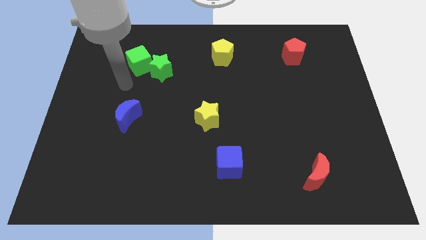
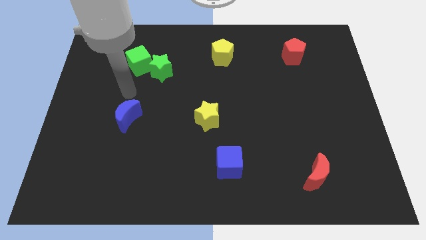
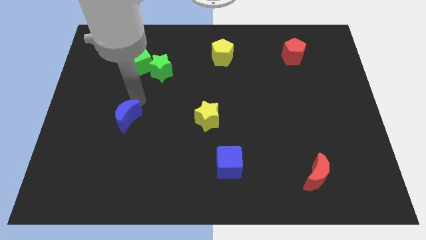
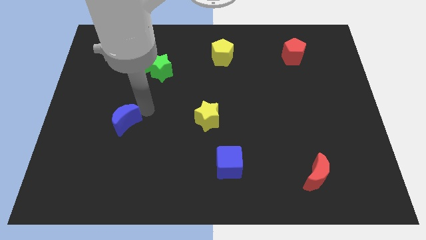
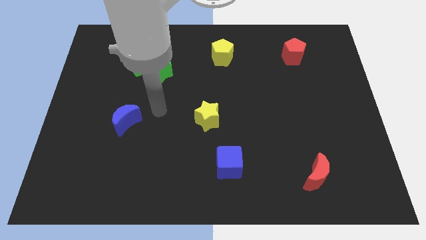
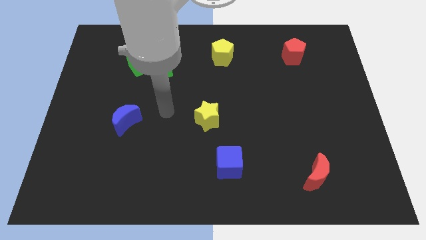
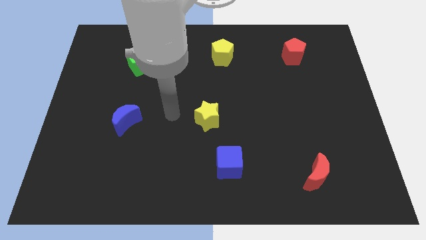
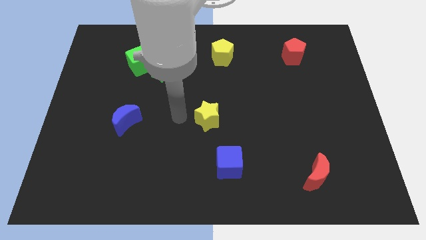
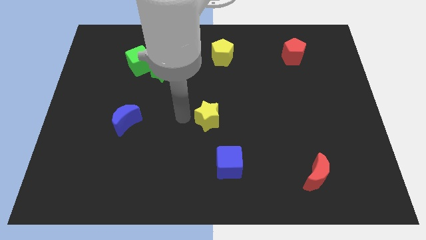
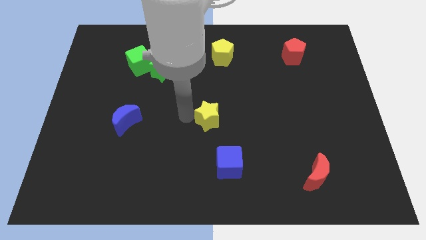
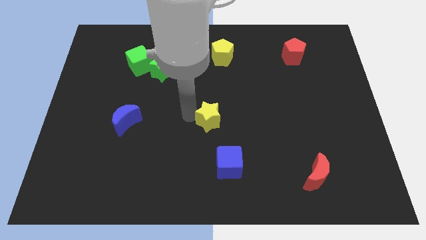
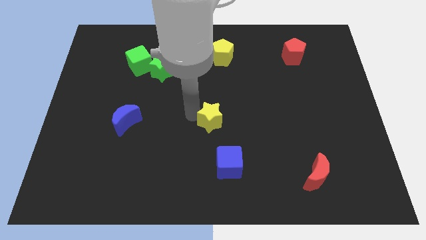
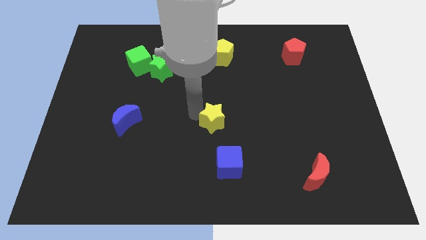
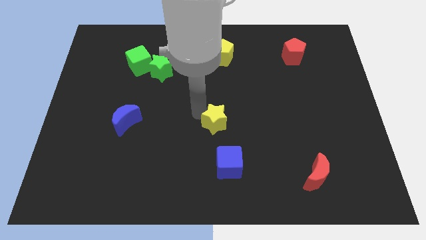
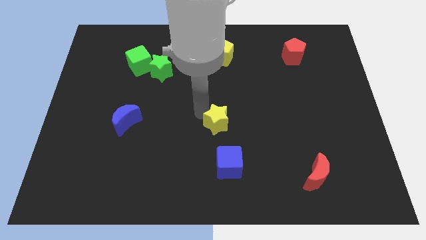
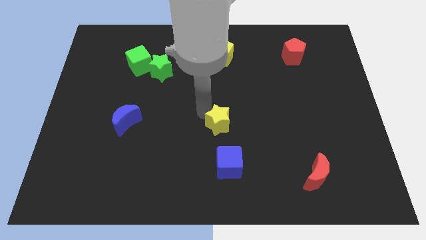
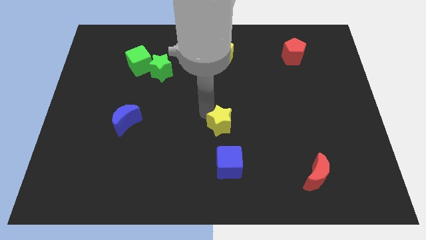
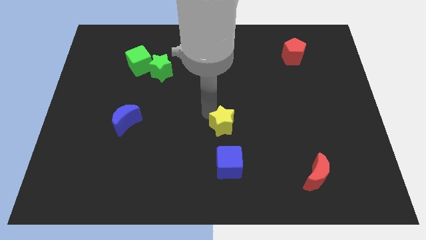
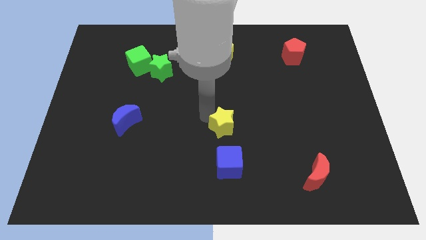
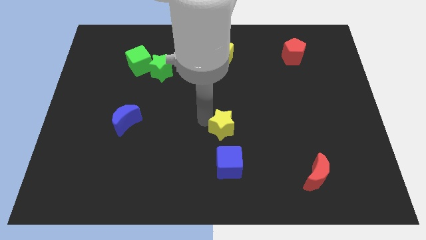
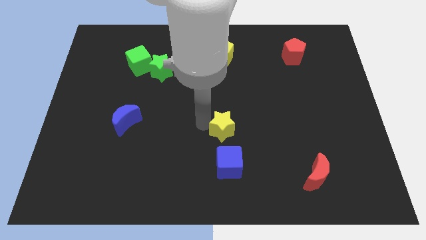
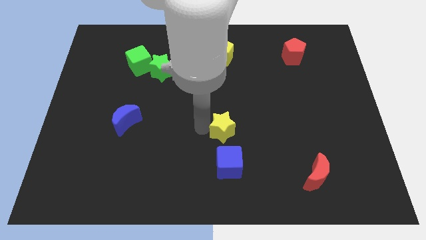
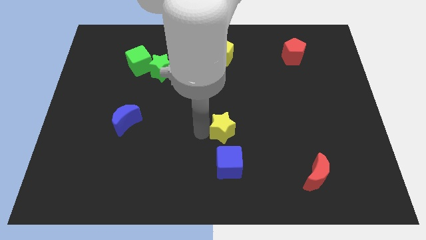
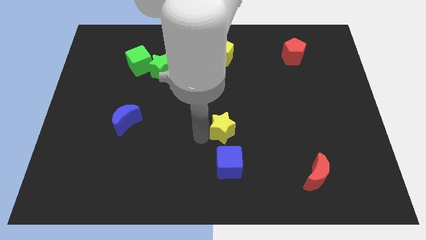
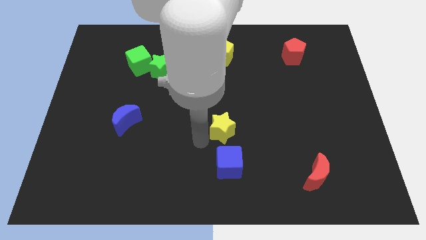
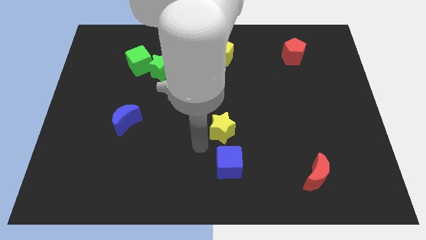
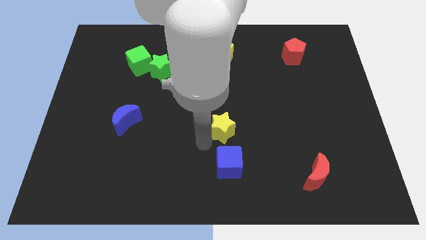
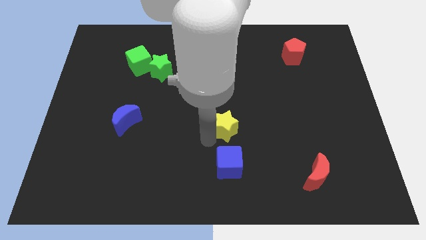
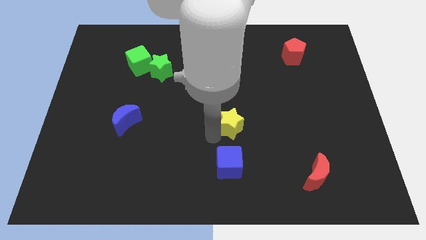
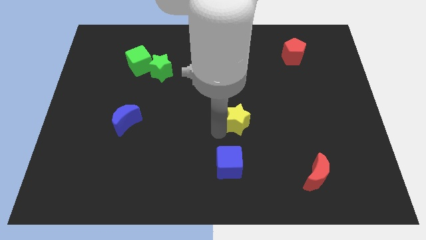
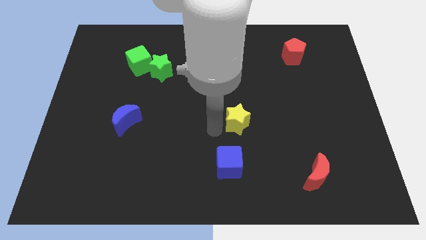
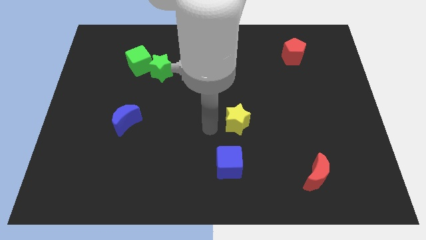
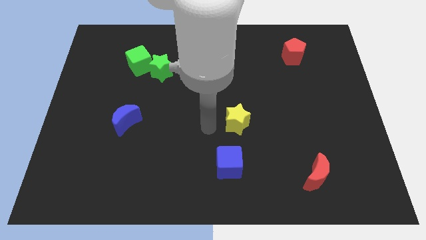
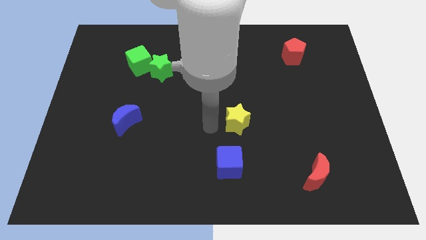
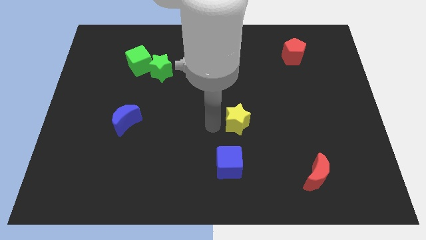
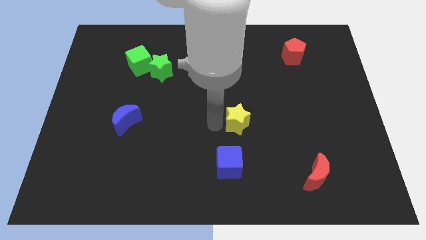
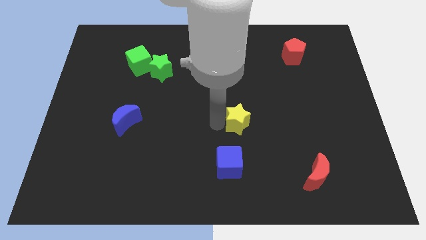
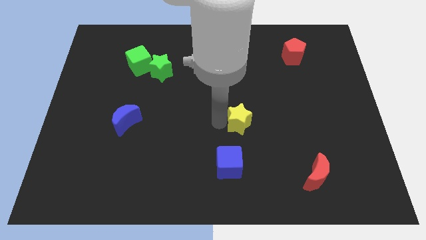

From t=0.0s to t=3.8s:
push the yellow star to the right somewhat

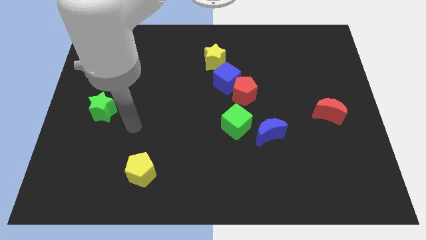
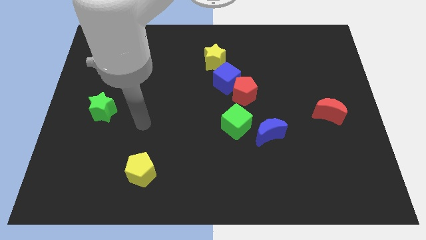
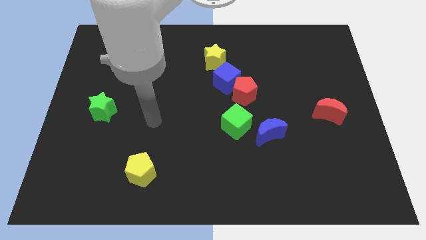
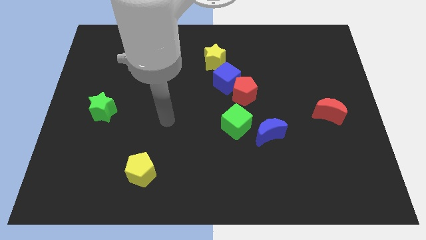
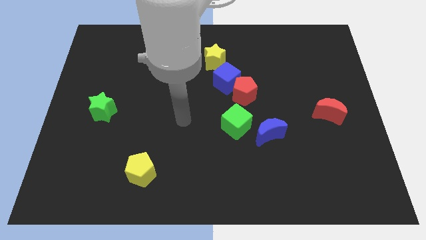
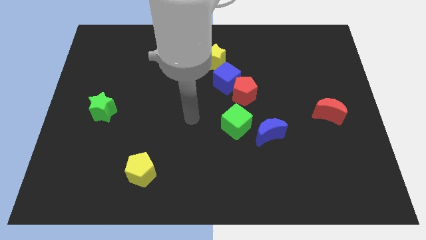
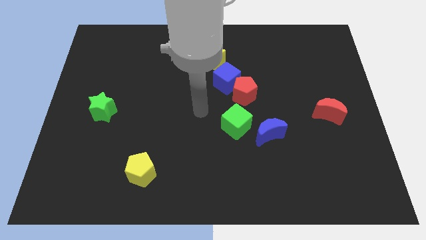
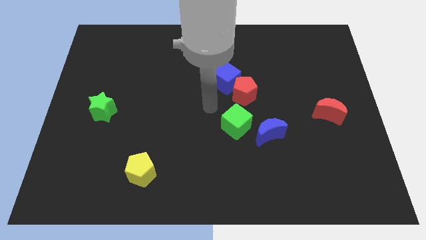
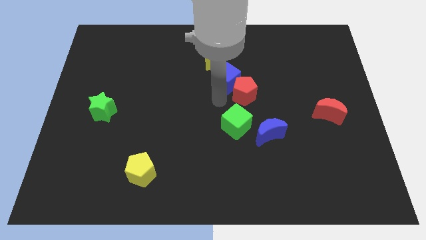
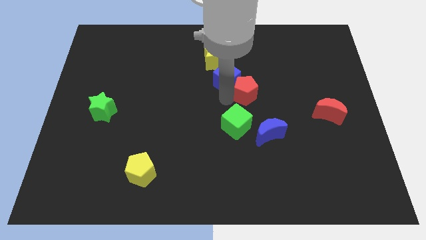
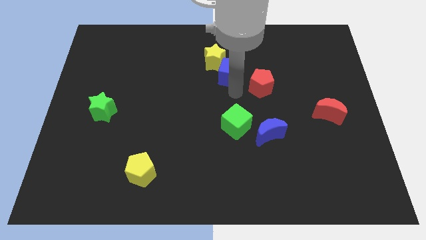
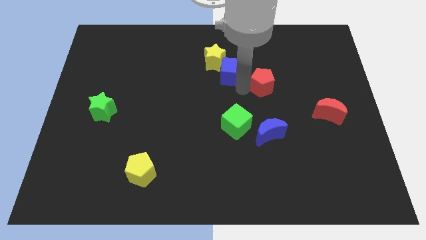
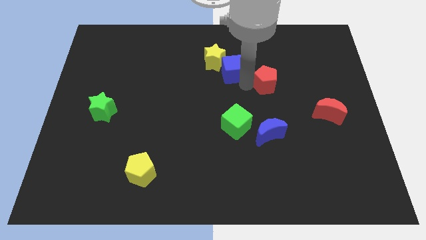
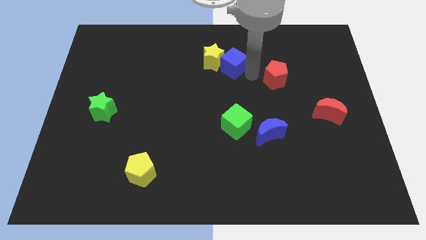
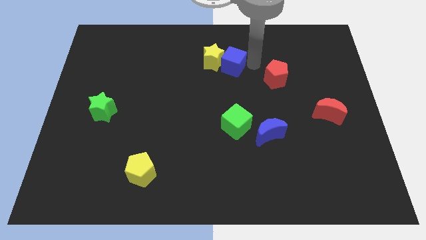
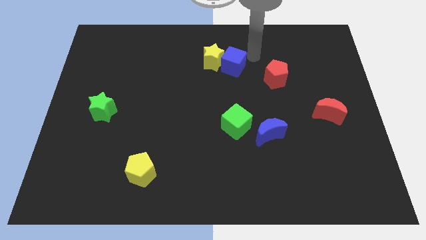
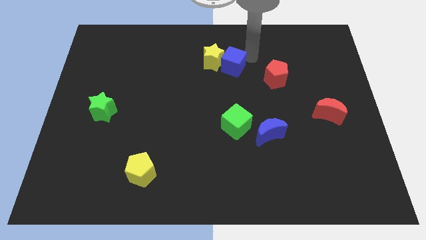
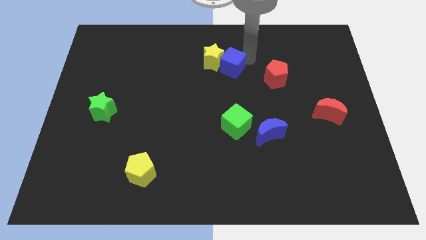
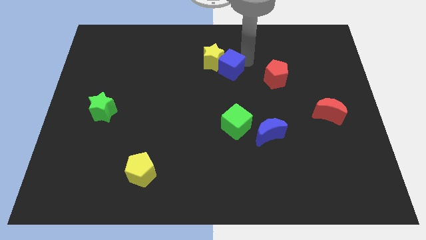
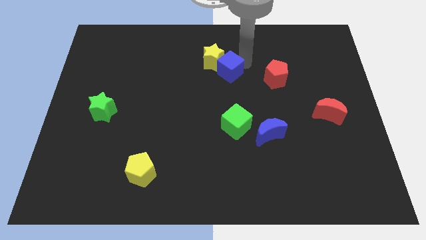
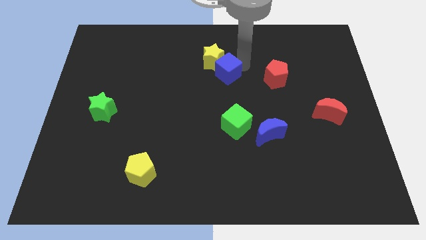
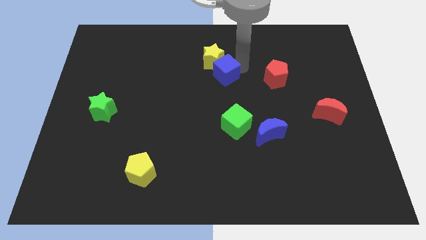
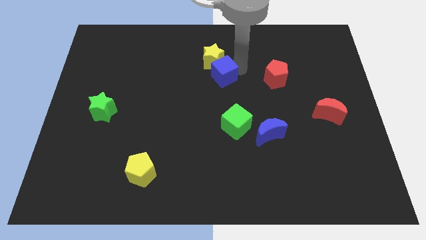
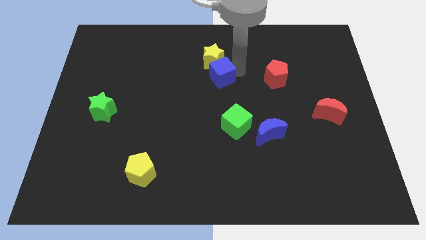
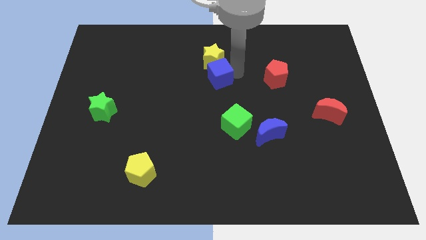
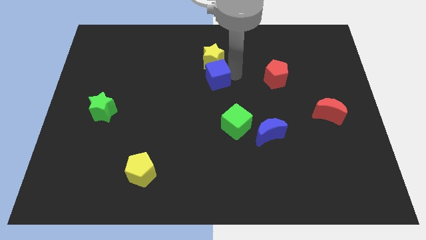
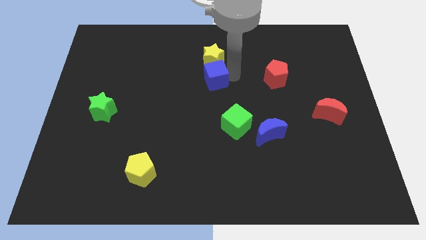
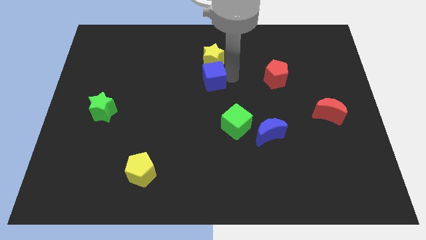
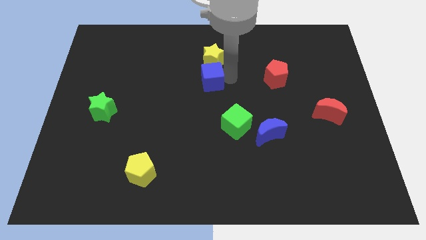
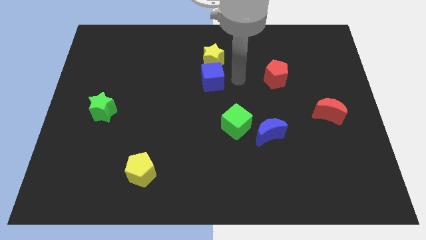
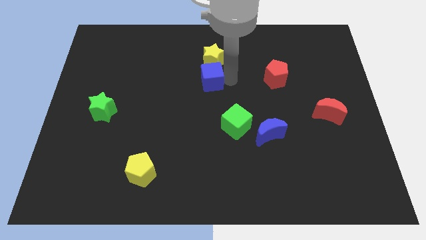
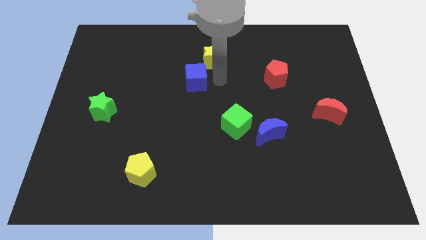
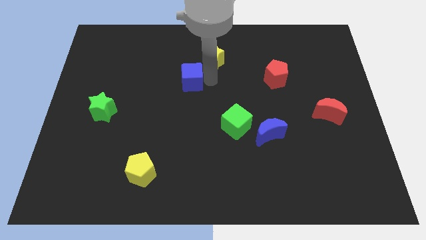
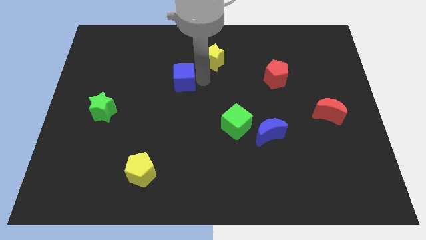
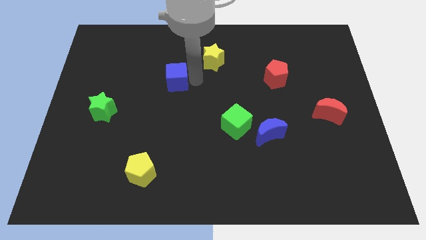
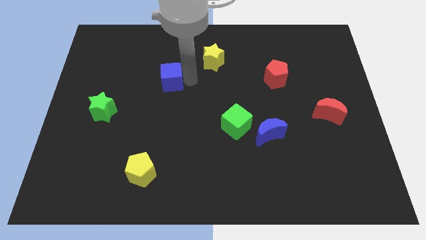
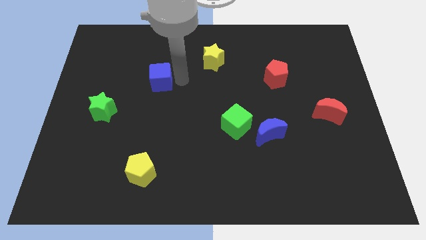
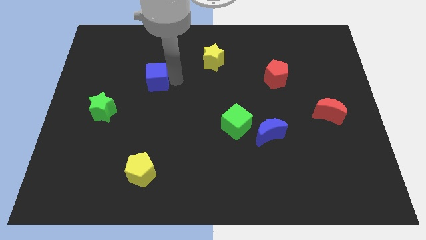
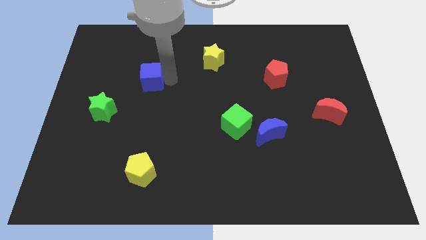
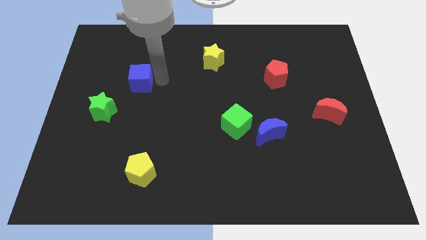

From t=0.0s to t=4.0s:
move the blue cube to the left

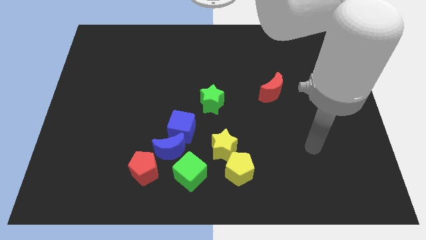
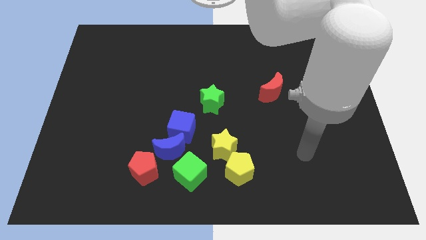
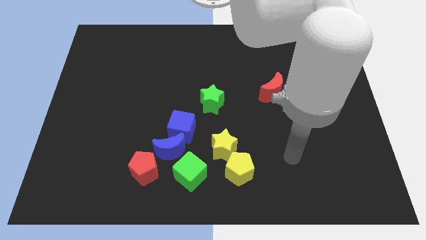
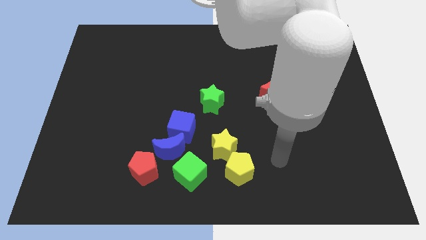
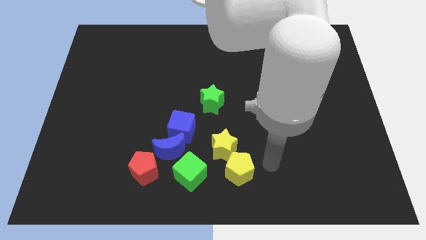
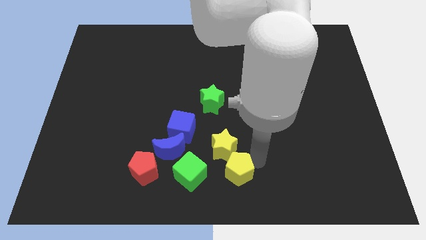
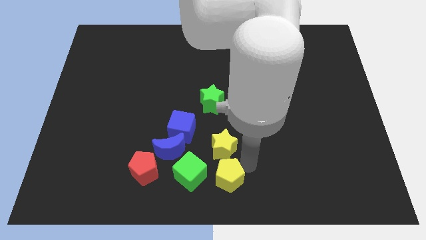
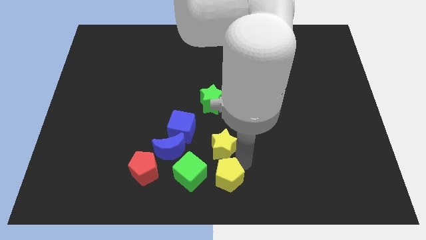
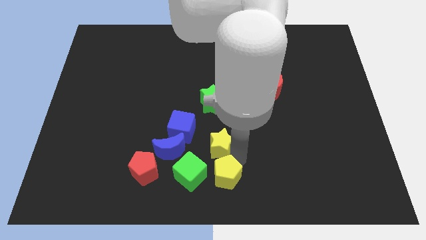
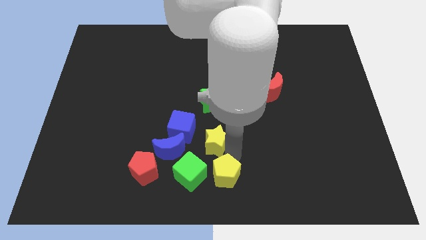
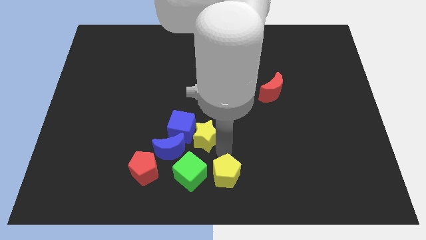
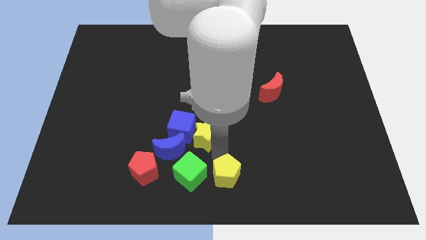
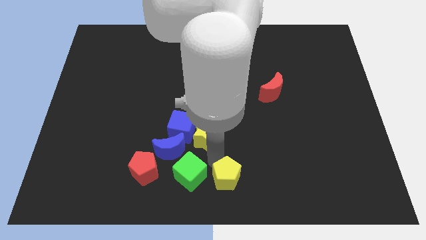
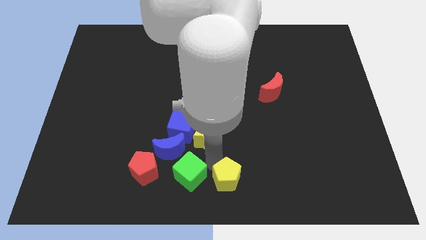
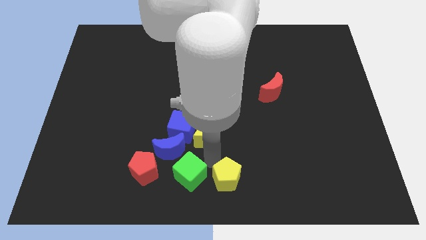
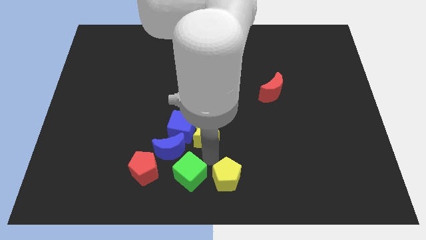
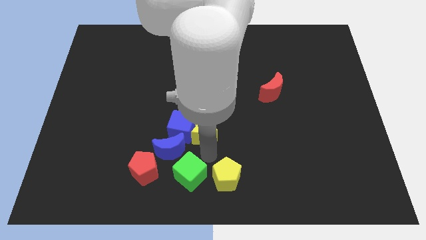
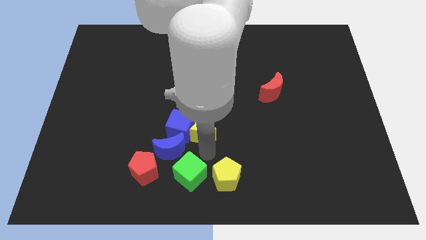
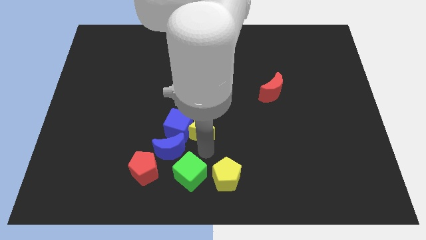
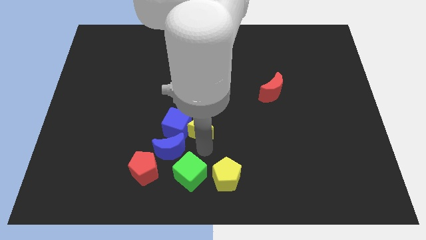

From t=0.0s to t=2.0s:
slightly move the yellow star upwards and left diagonally
